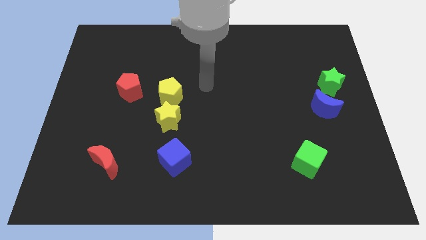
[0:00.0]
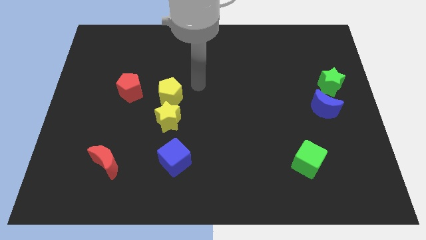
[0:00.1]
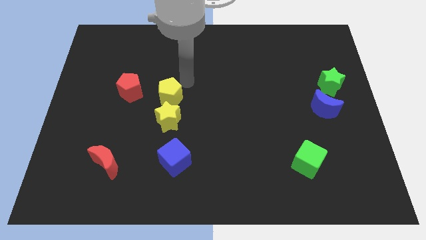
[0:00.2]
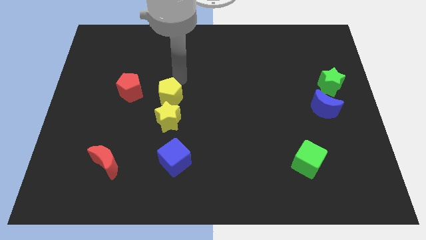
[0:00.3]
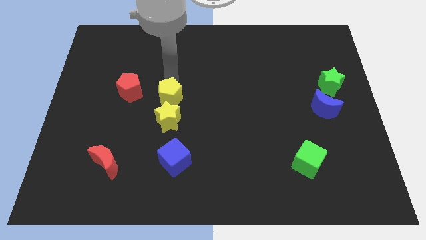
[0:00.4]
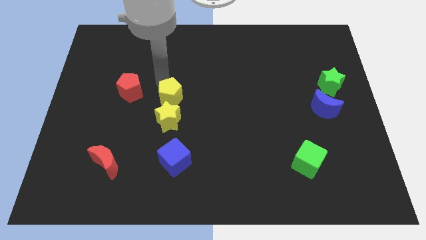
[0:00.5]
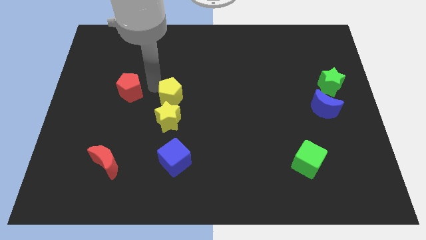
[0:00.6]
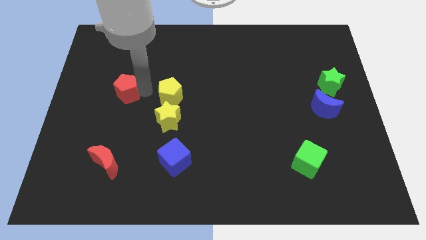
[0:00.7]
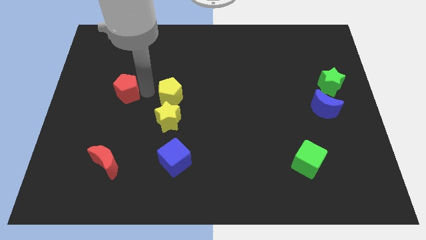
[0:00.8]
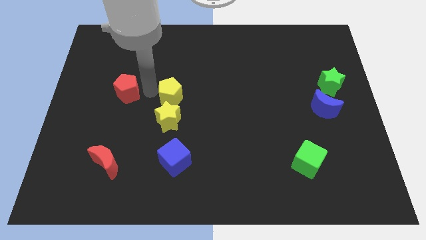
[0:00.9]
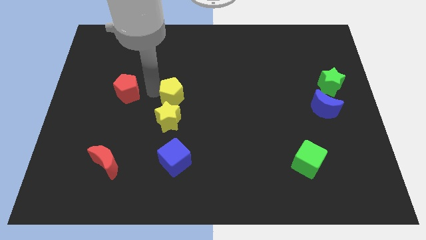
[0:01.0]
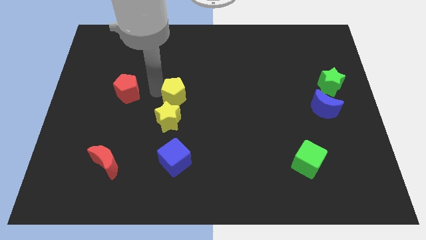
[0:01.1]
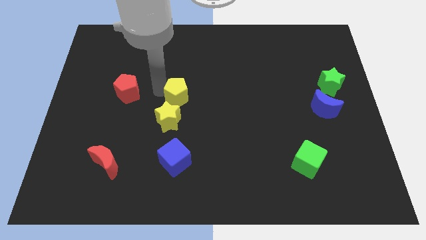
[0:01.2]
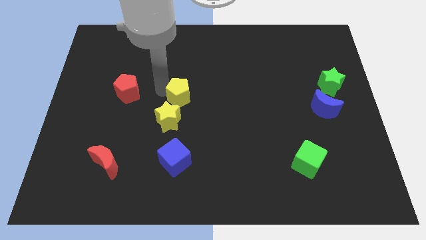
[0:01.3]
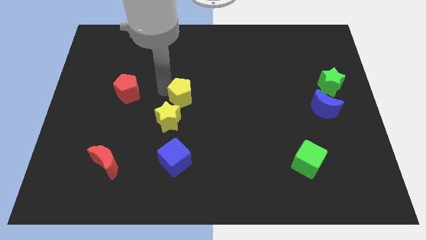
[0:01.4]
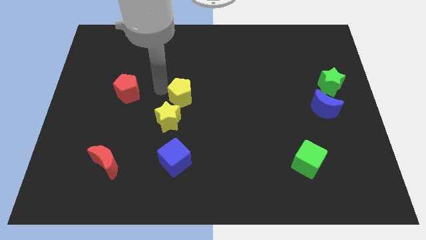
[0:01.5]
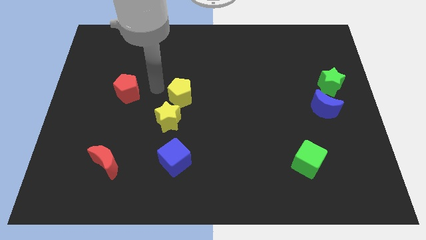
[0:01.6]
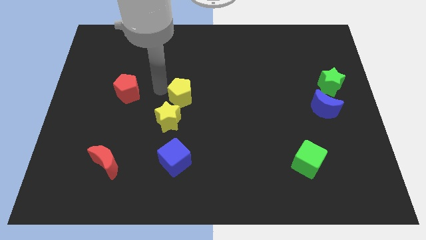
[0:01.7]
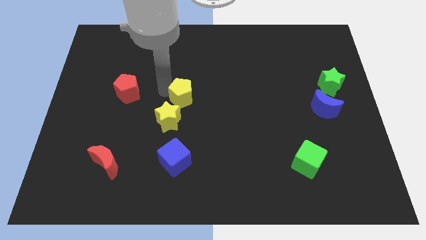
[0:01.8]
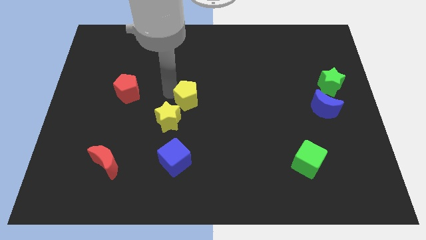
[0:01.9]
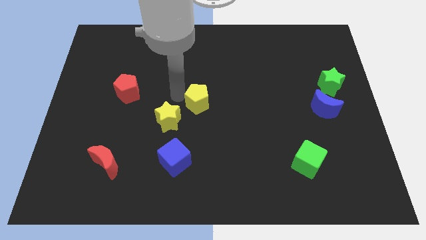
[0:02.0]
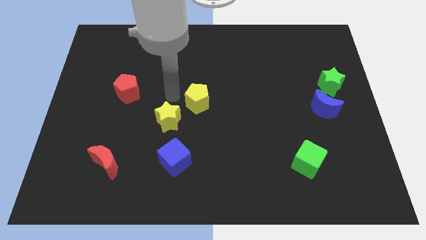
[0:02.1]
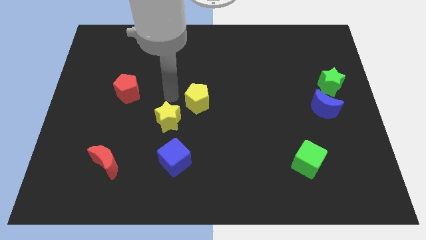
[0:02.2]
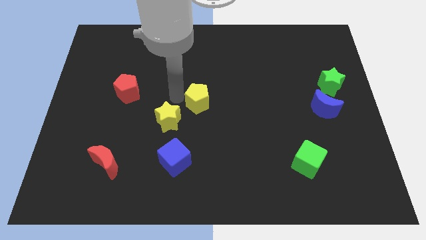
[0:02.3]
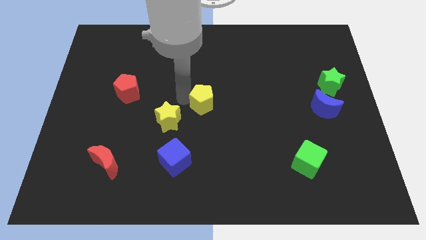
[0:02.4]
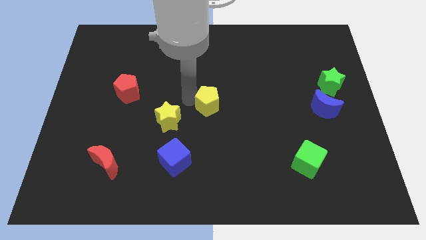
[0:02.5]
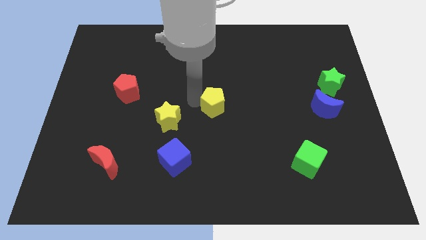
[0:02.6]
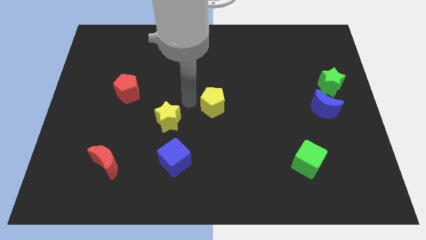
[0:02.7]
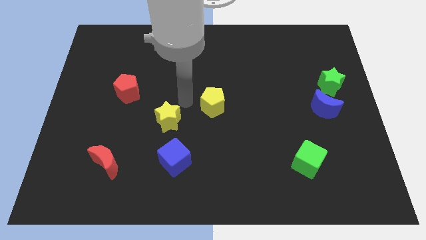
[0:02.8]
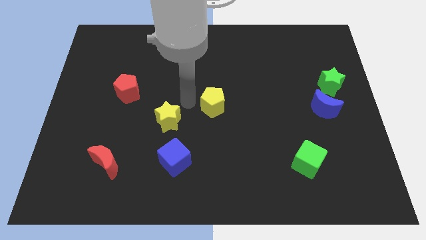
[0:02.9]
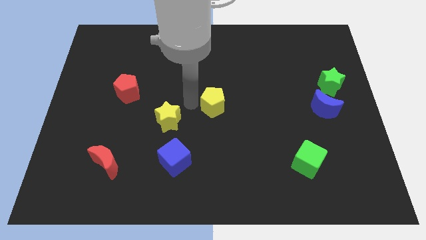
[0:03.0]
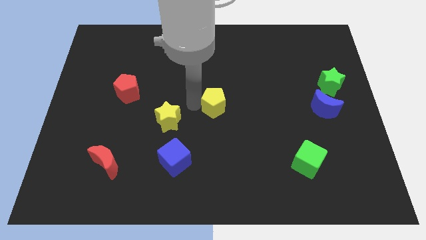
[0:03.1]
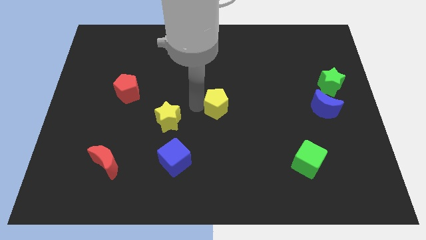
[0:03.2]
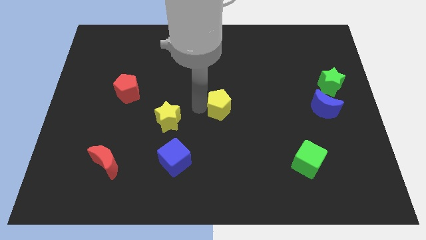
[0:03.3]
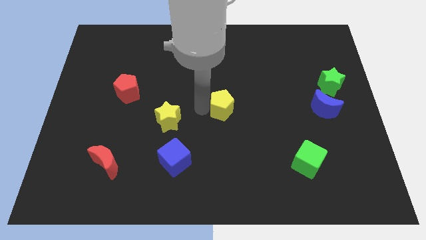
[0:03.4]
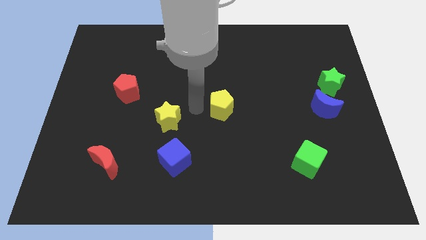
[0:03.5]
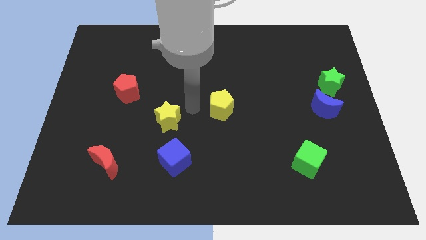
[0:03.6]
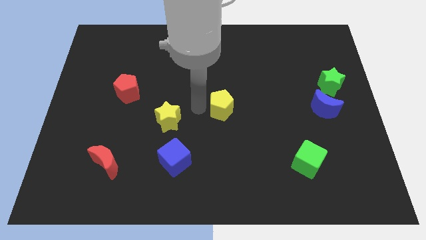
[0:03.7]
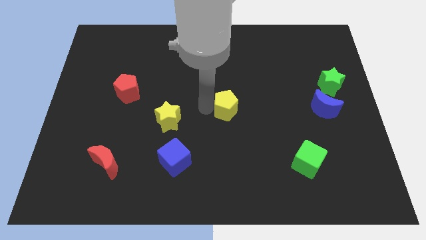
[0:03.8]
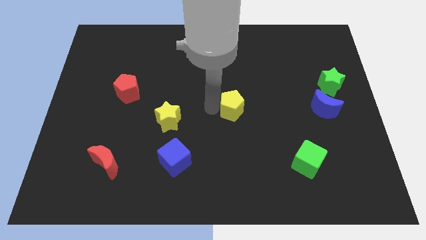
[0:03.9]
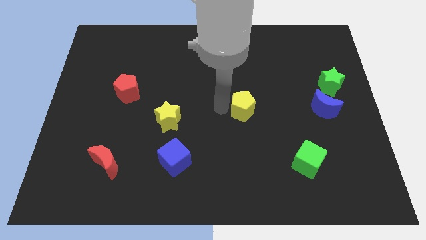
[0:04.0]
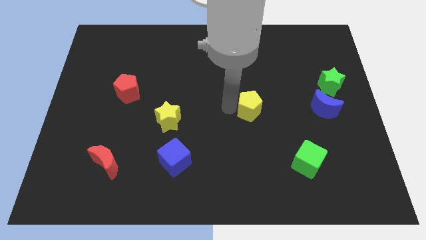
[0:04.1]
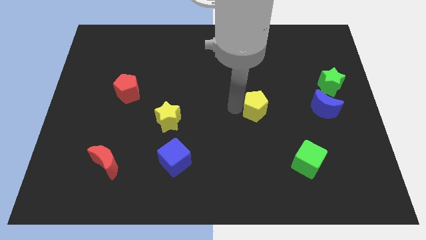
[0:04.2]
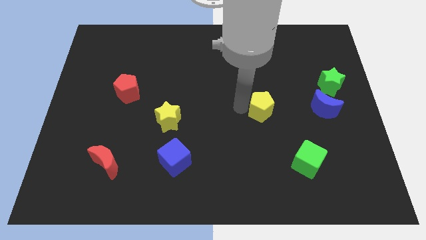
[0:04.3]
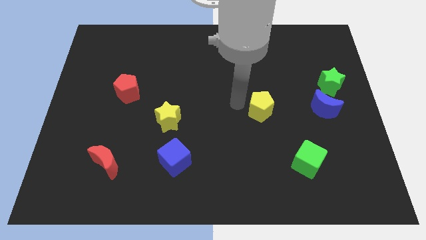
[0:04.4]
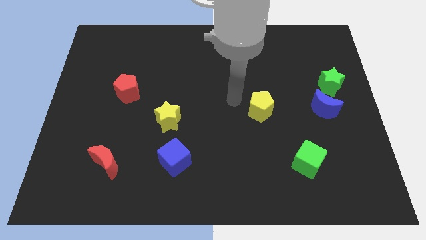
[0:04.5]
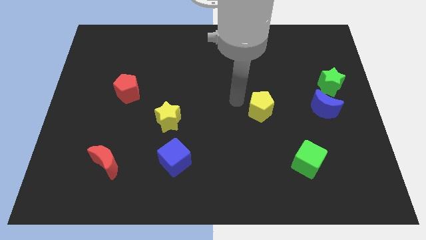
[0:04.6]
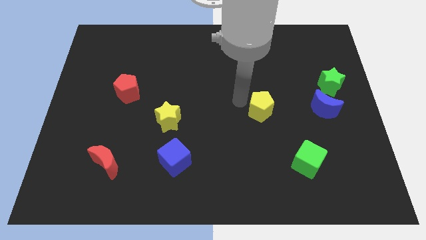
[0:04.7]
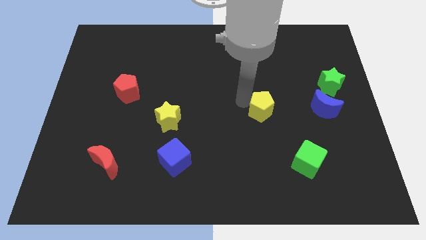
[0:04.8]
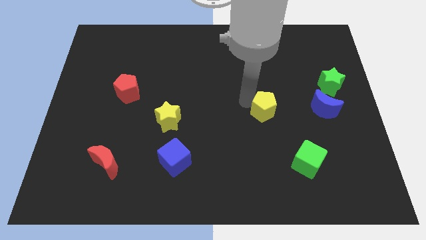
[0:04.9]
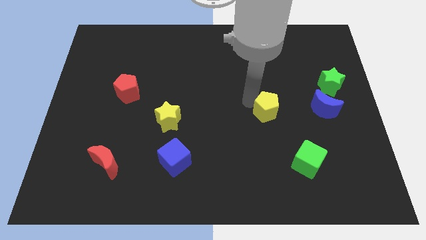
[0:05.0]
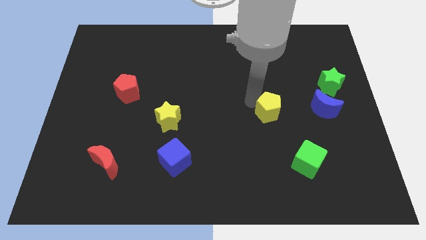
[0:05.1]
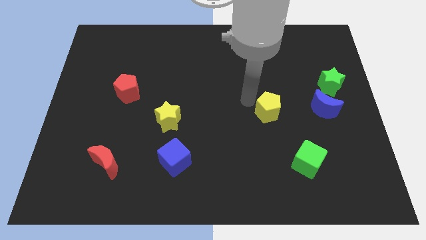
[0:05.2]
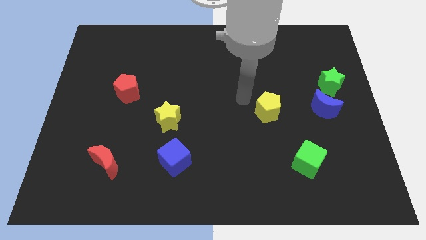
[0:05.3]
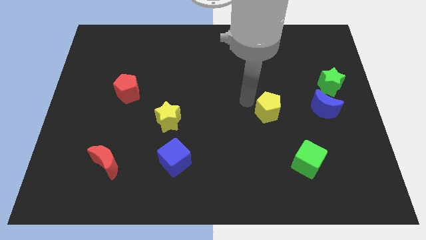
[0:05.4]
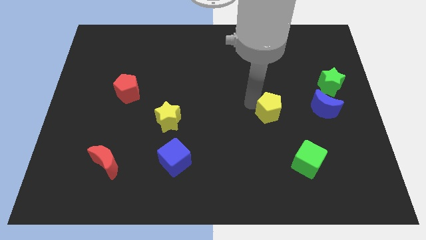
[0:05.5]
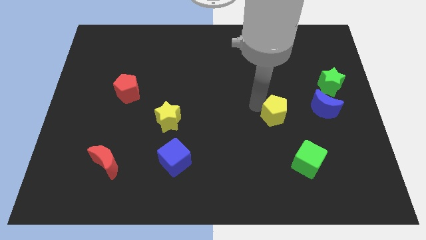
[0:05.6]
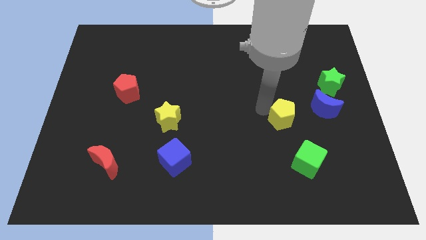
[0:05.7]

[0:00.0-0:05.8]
slide the yellow pentagon above the green cube

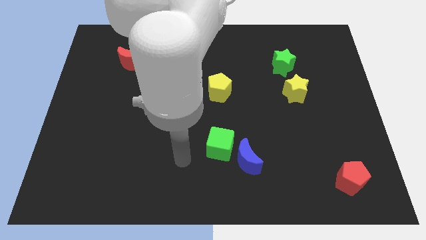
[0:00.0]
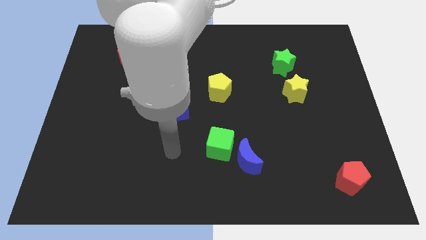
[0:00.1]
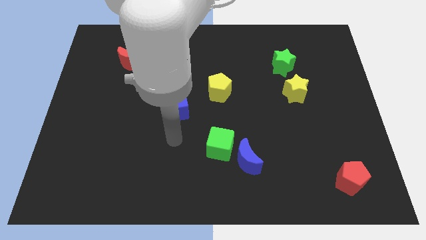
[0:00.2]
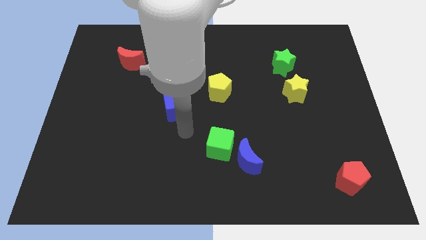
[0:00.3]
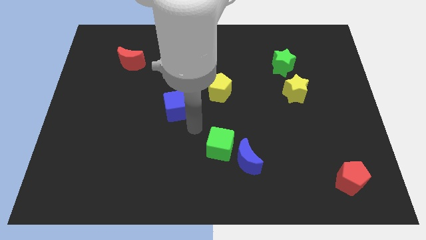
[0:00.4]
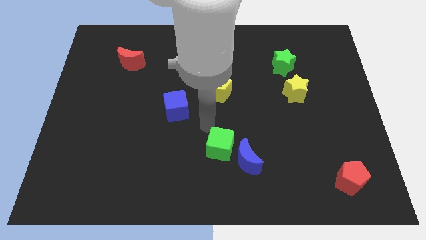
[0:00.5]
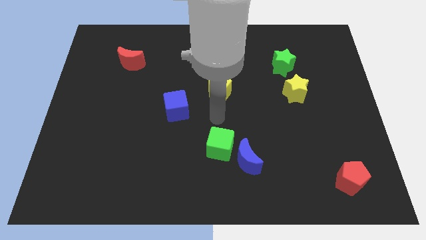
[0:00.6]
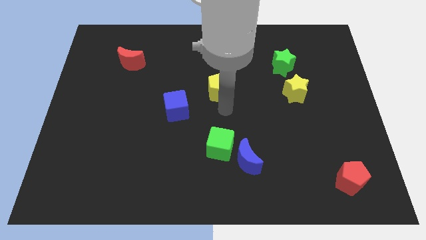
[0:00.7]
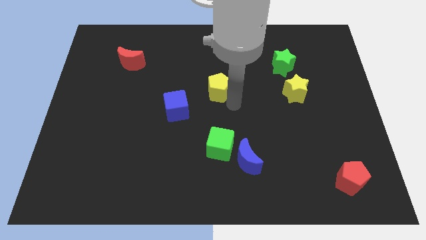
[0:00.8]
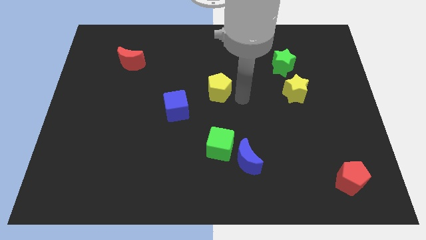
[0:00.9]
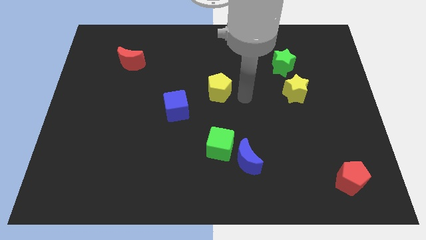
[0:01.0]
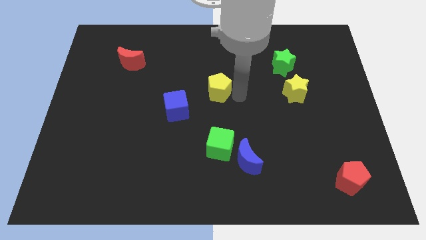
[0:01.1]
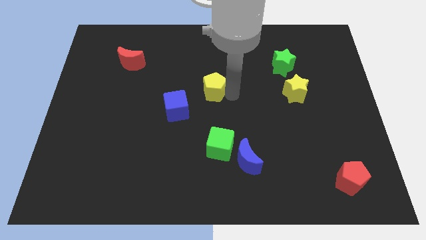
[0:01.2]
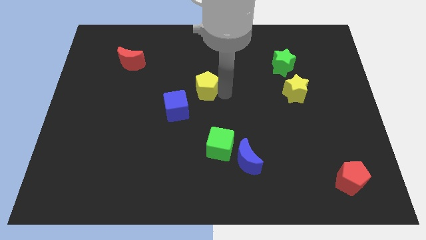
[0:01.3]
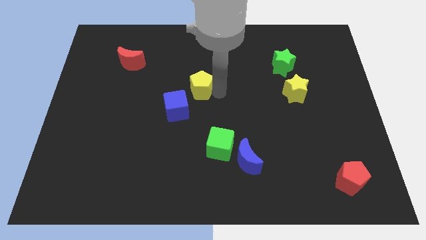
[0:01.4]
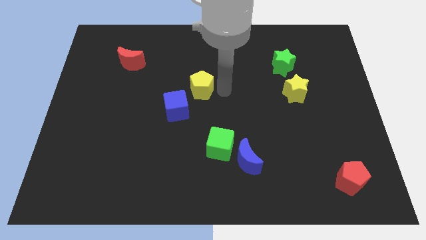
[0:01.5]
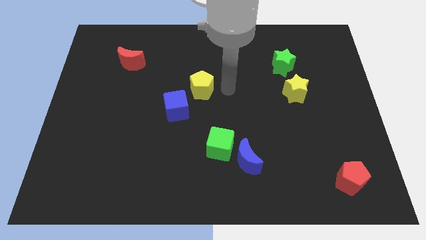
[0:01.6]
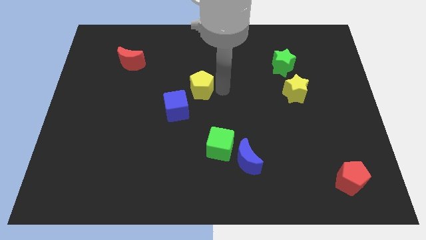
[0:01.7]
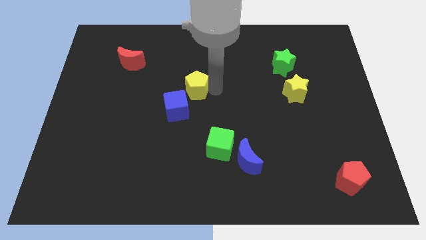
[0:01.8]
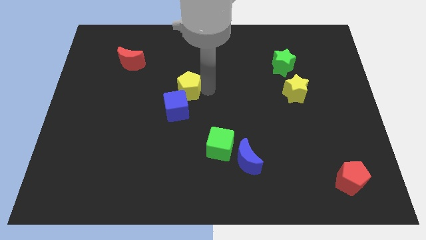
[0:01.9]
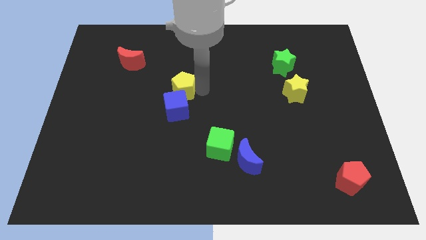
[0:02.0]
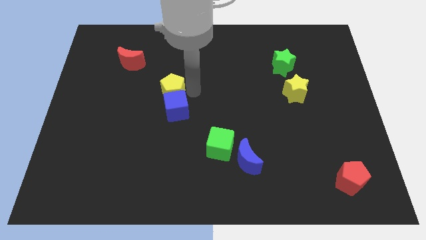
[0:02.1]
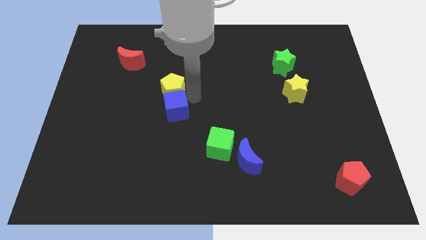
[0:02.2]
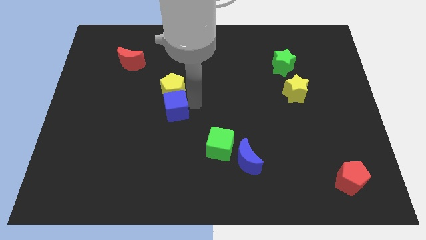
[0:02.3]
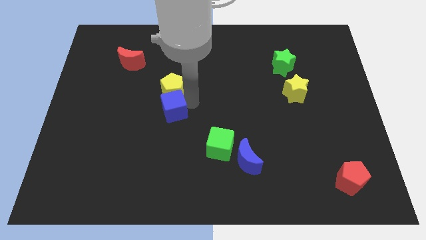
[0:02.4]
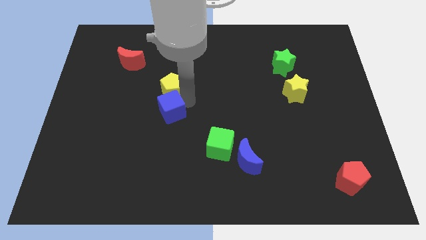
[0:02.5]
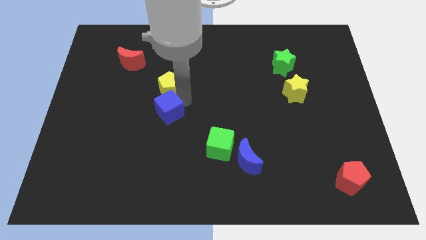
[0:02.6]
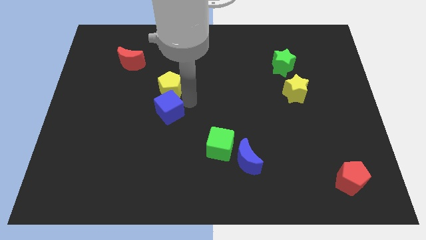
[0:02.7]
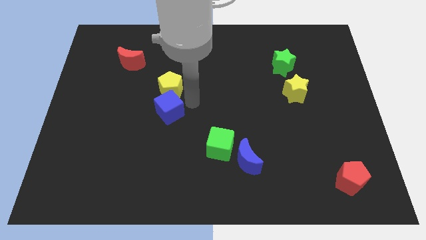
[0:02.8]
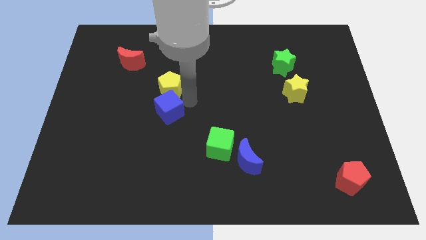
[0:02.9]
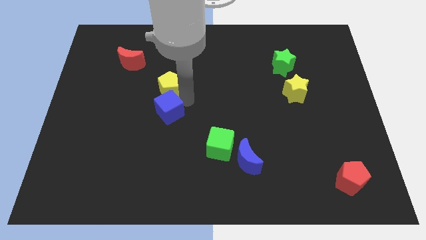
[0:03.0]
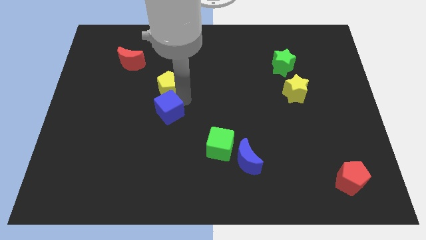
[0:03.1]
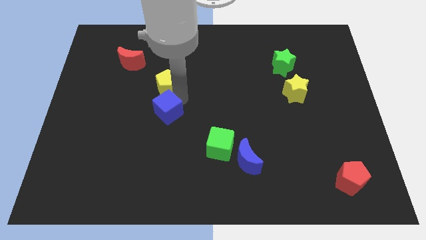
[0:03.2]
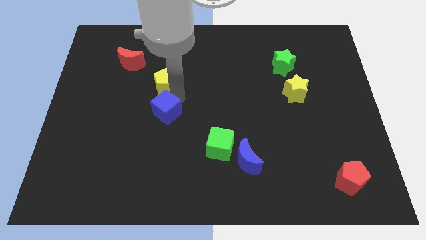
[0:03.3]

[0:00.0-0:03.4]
slide the yellow pentagon to the bottom right side of the red moon
